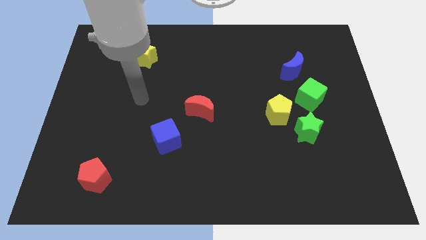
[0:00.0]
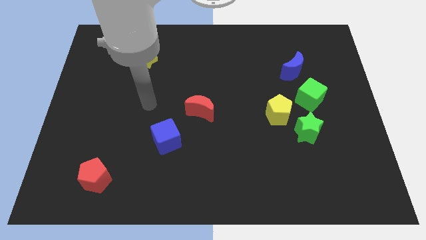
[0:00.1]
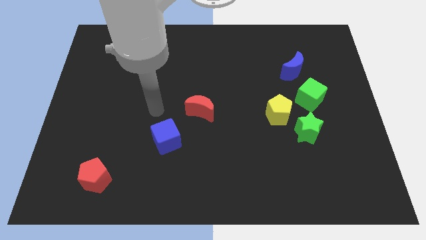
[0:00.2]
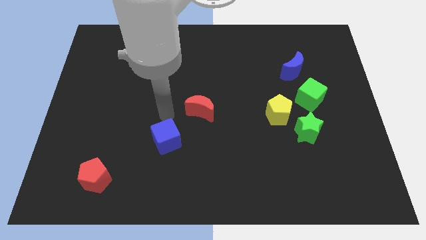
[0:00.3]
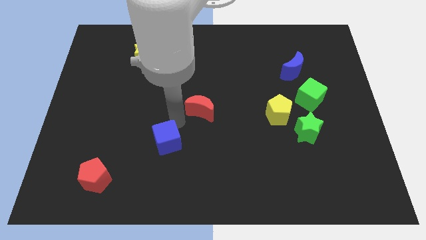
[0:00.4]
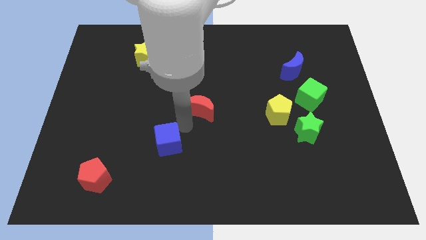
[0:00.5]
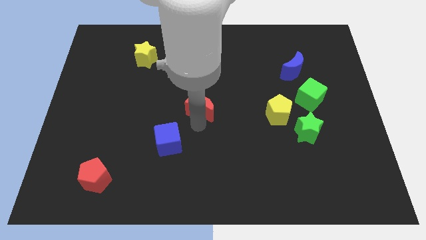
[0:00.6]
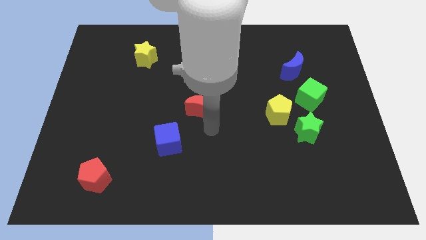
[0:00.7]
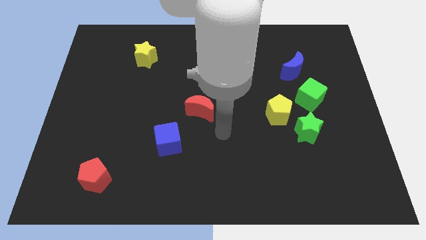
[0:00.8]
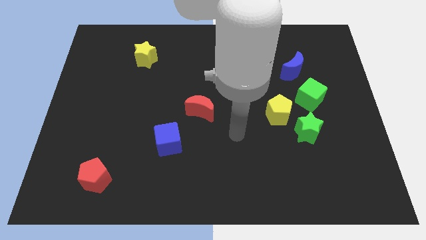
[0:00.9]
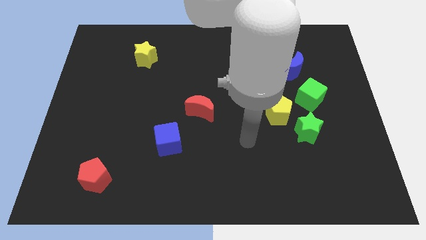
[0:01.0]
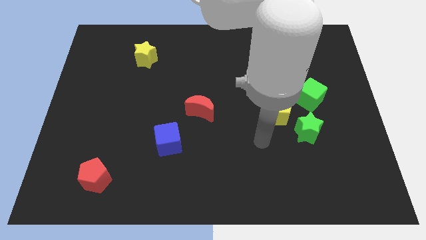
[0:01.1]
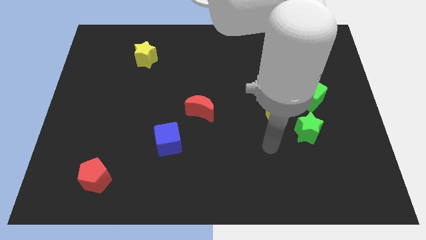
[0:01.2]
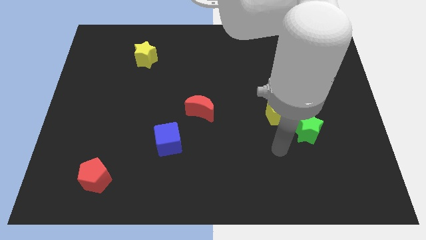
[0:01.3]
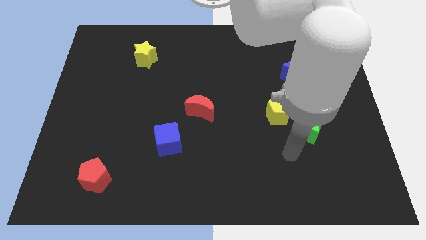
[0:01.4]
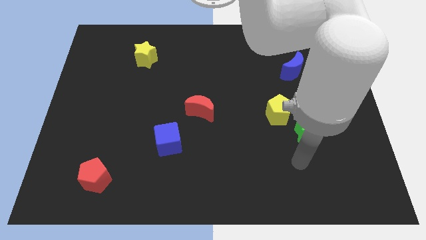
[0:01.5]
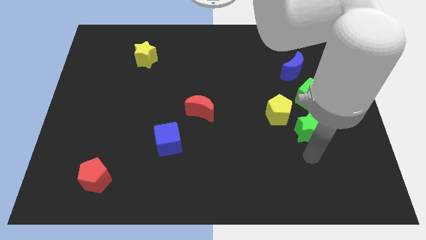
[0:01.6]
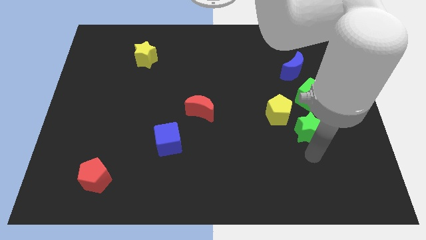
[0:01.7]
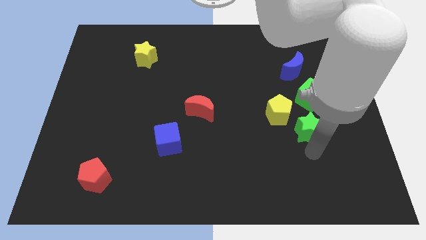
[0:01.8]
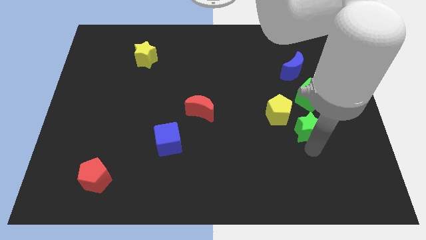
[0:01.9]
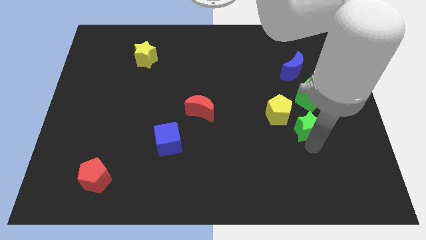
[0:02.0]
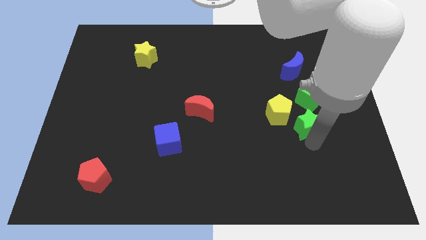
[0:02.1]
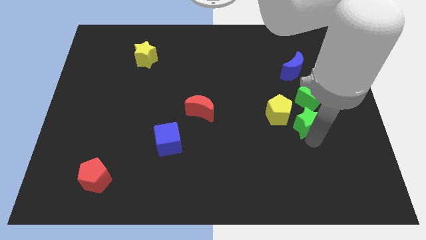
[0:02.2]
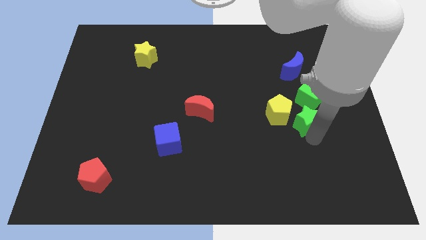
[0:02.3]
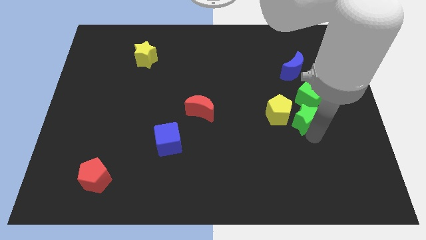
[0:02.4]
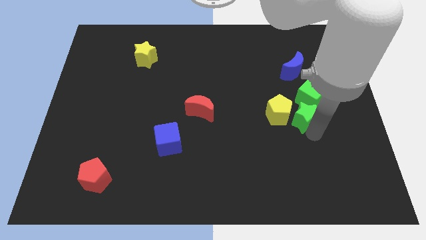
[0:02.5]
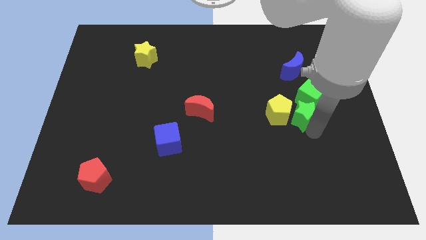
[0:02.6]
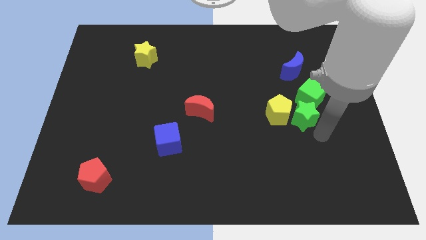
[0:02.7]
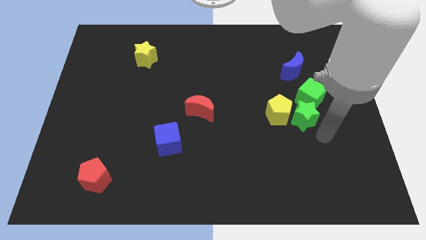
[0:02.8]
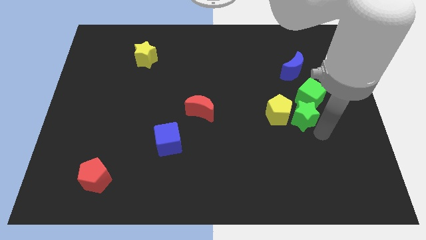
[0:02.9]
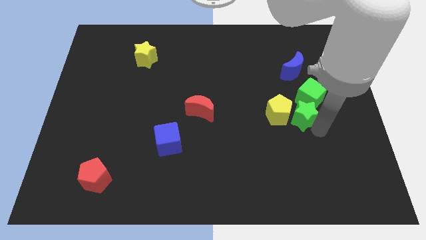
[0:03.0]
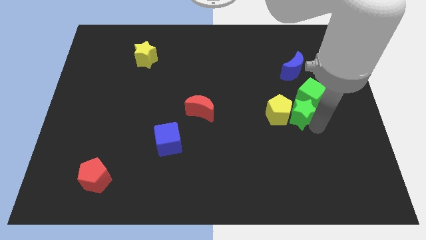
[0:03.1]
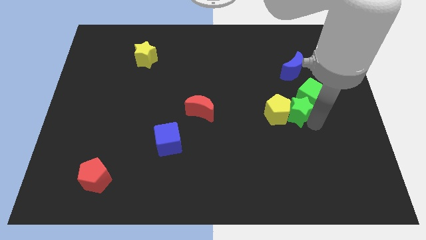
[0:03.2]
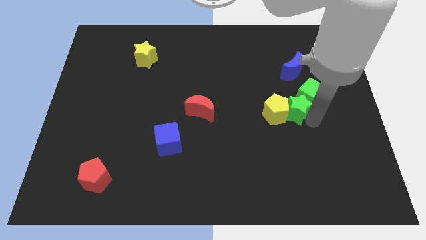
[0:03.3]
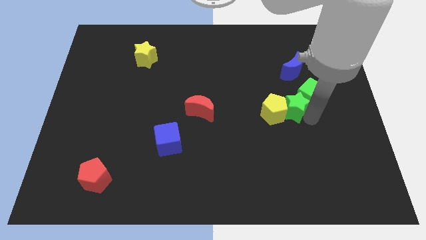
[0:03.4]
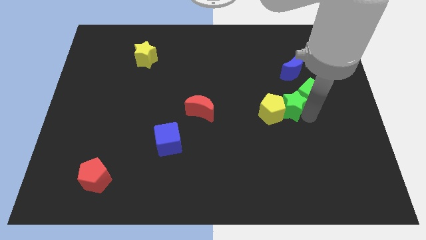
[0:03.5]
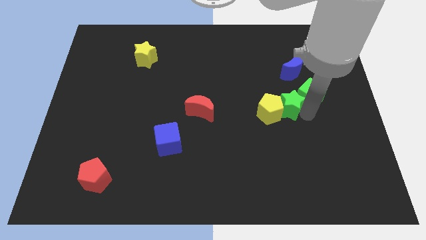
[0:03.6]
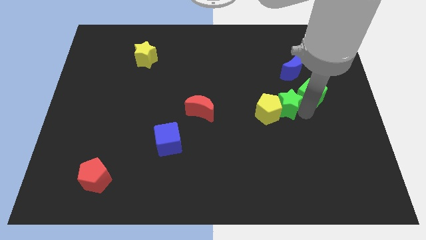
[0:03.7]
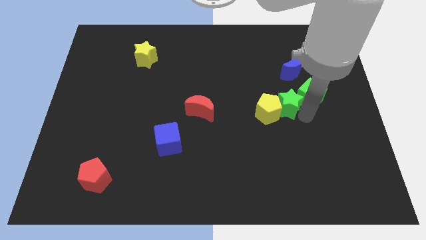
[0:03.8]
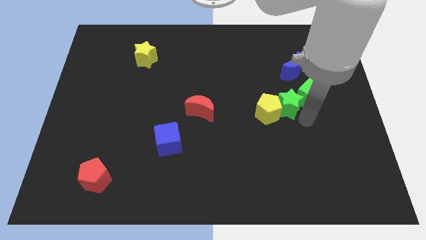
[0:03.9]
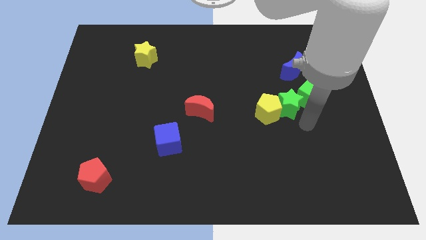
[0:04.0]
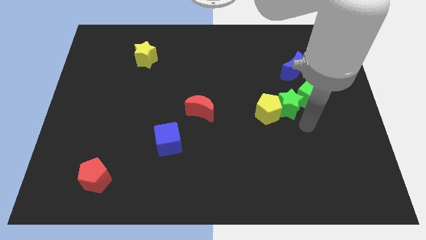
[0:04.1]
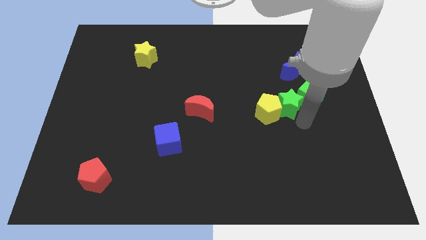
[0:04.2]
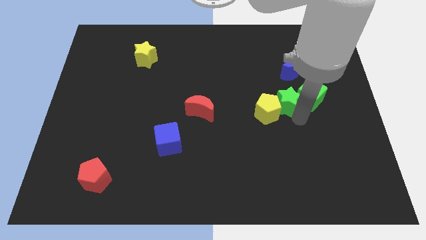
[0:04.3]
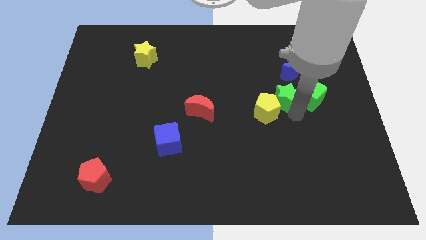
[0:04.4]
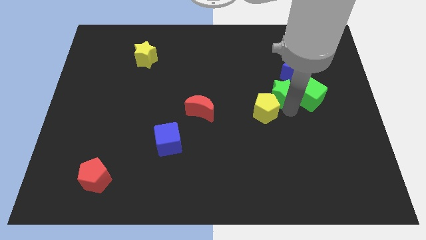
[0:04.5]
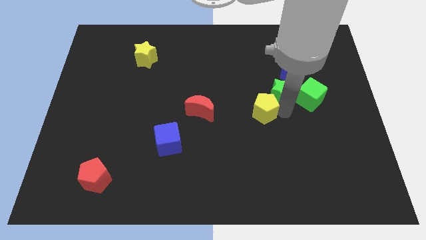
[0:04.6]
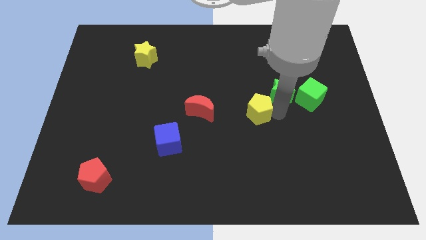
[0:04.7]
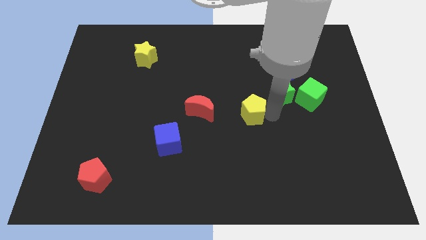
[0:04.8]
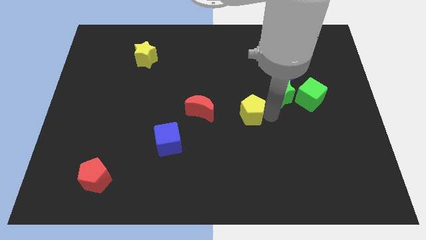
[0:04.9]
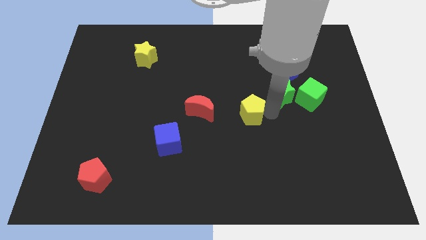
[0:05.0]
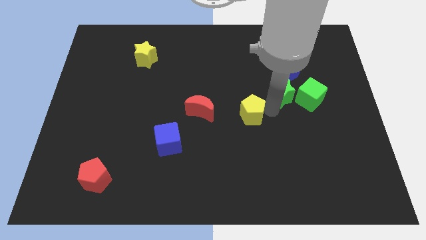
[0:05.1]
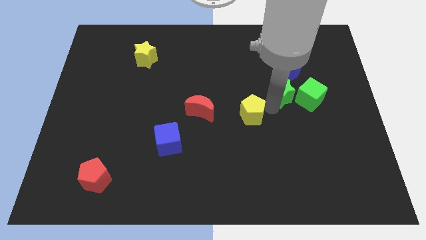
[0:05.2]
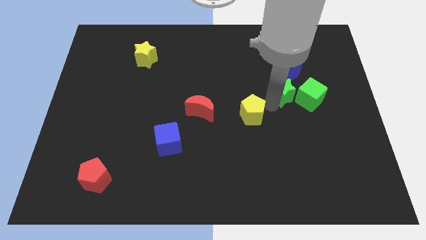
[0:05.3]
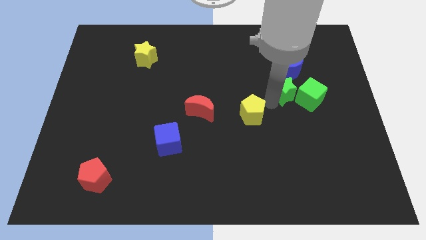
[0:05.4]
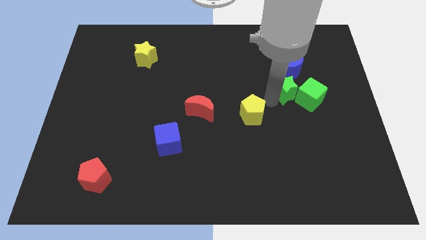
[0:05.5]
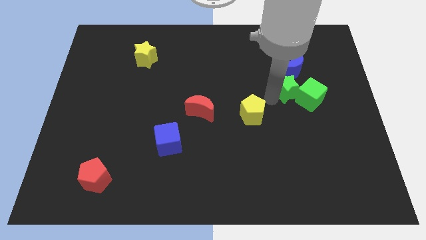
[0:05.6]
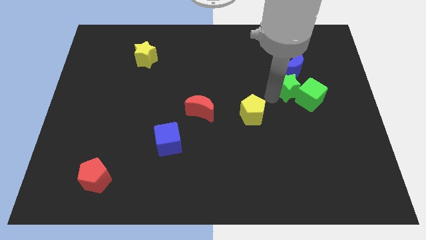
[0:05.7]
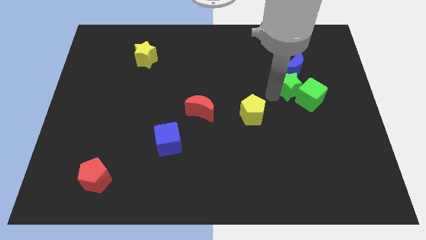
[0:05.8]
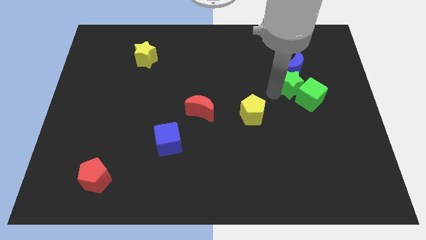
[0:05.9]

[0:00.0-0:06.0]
slide the green star close to the blue moon
